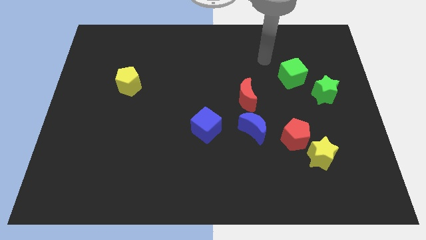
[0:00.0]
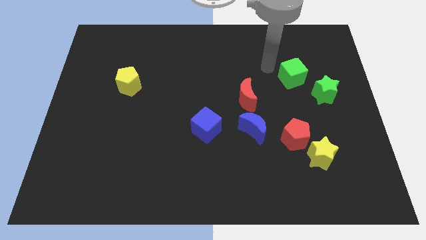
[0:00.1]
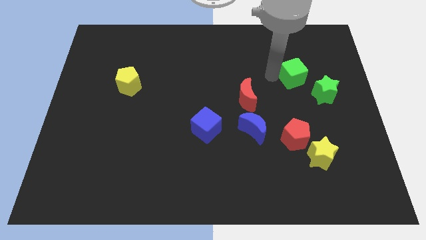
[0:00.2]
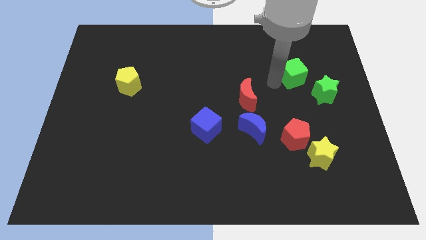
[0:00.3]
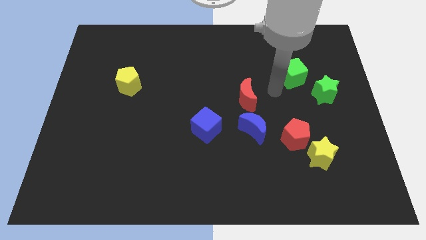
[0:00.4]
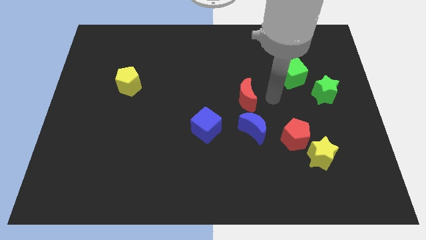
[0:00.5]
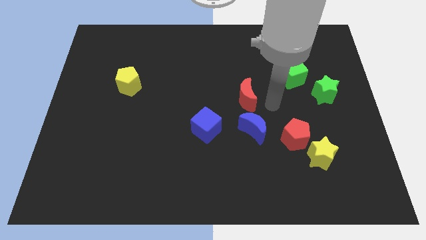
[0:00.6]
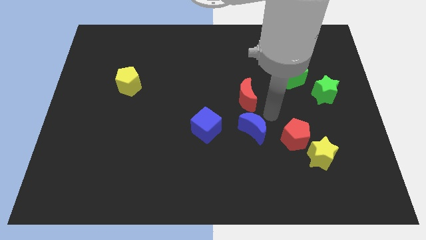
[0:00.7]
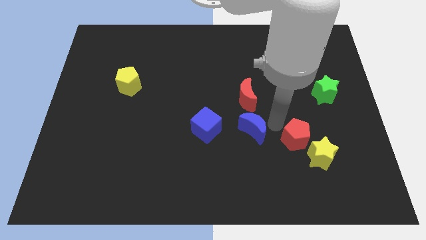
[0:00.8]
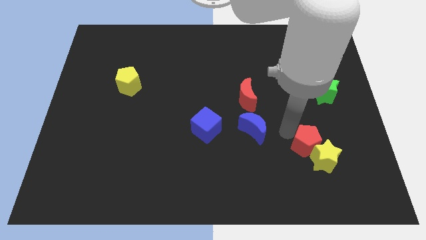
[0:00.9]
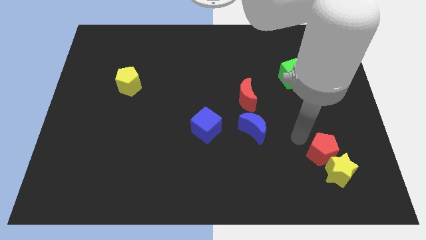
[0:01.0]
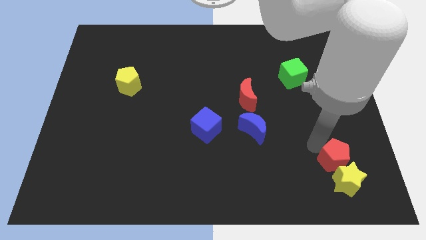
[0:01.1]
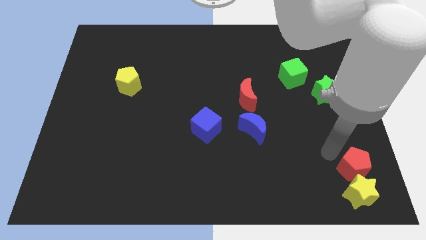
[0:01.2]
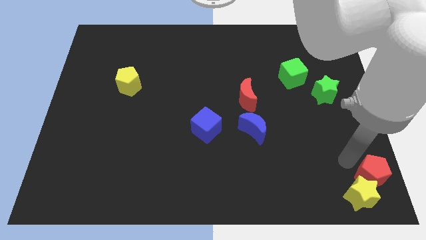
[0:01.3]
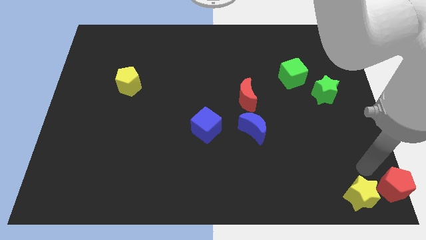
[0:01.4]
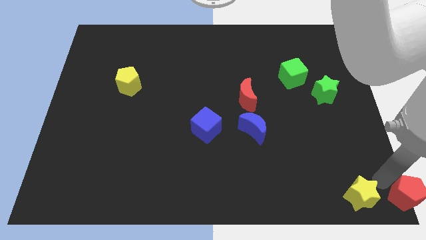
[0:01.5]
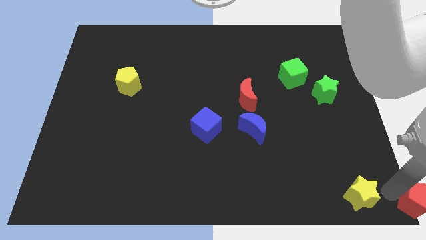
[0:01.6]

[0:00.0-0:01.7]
separate the yellow star from the red pentagon

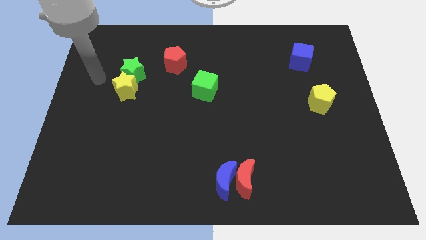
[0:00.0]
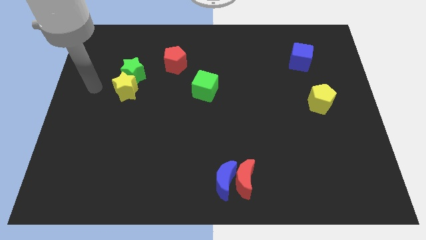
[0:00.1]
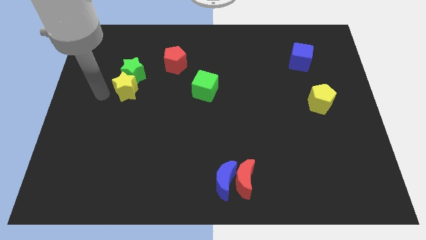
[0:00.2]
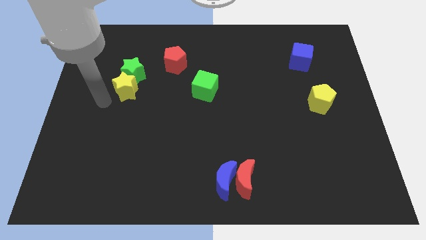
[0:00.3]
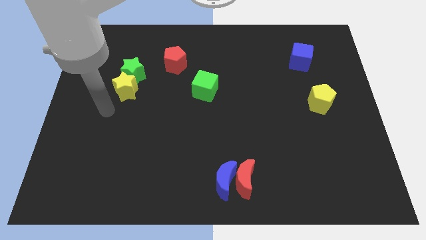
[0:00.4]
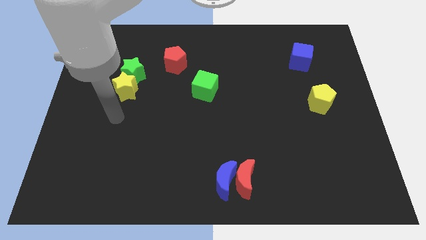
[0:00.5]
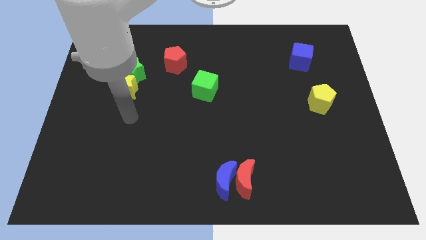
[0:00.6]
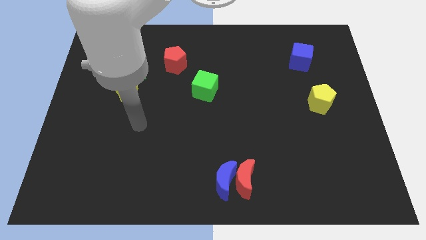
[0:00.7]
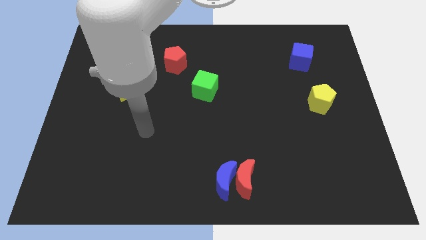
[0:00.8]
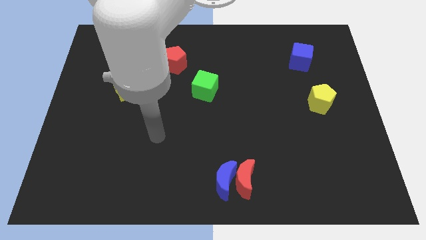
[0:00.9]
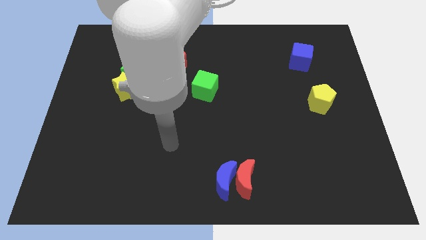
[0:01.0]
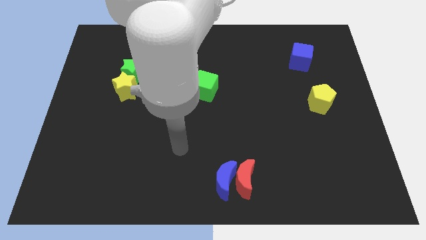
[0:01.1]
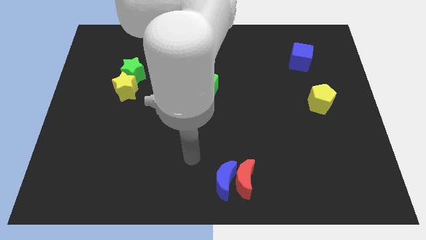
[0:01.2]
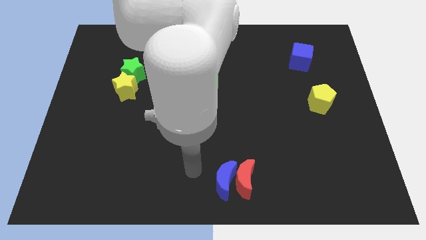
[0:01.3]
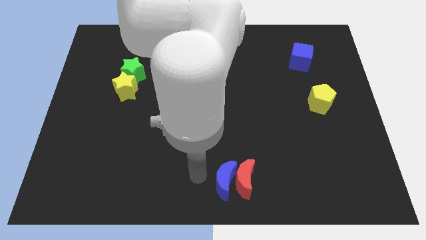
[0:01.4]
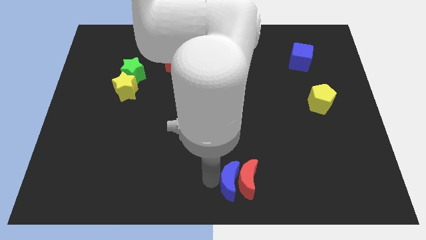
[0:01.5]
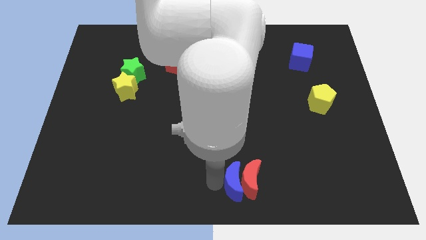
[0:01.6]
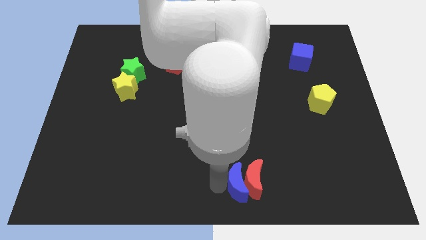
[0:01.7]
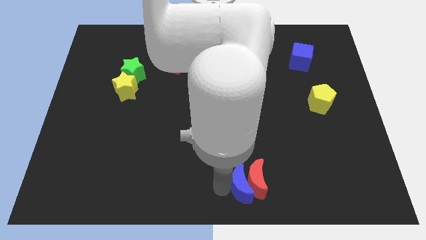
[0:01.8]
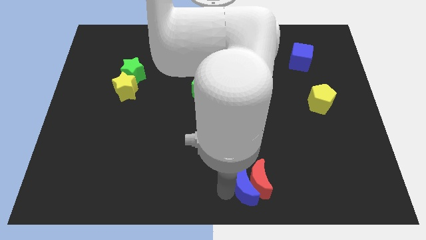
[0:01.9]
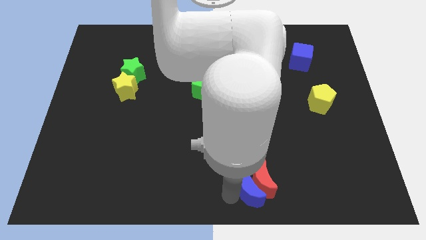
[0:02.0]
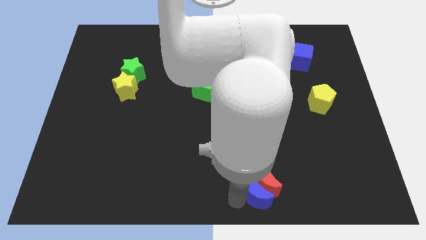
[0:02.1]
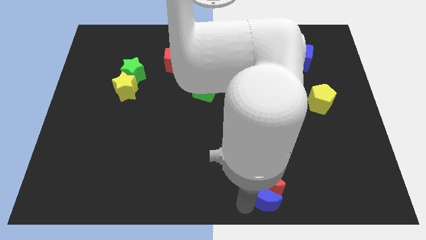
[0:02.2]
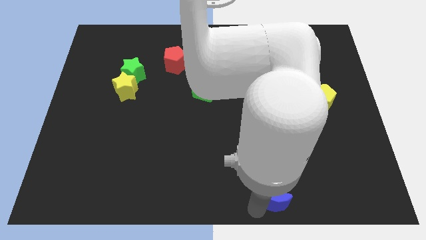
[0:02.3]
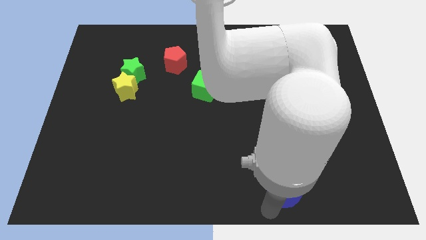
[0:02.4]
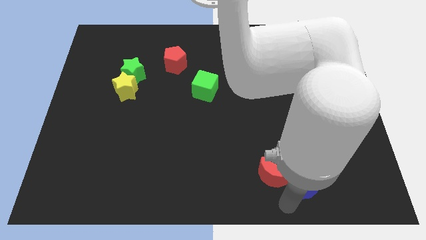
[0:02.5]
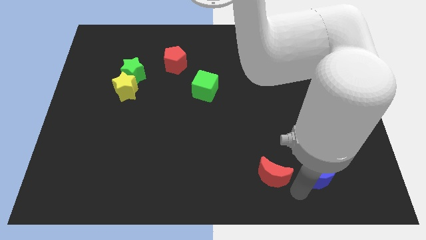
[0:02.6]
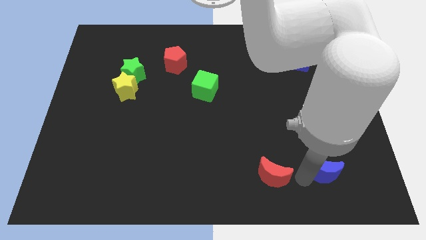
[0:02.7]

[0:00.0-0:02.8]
separate the red moon from the blue moon

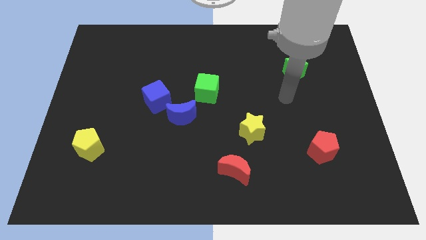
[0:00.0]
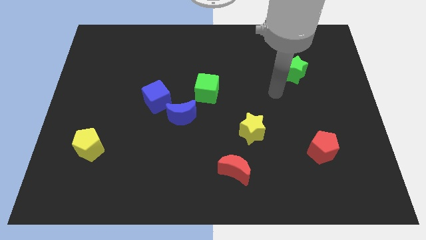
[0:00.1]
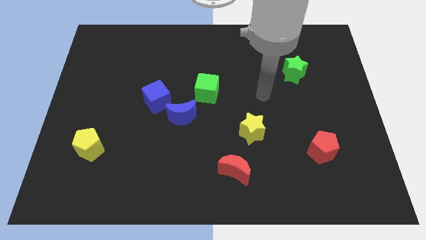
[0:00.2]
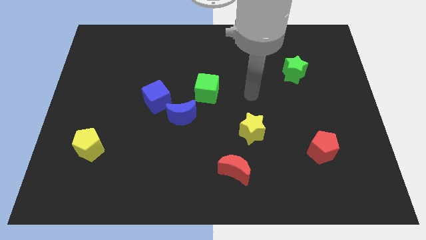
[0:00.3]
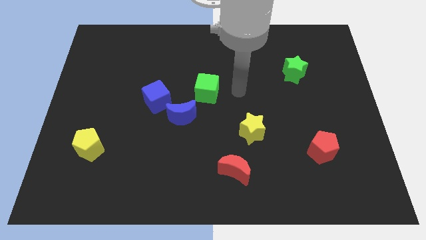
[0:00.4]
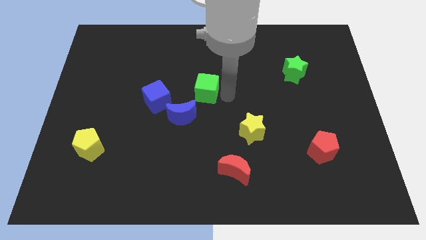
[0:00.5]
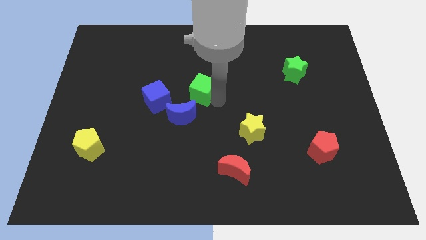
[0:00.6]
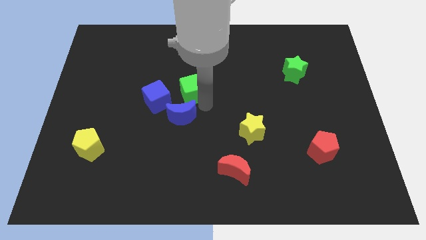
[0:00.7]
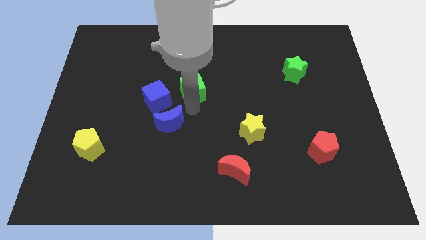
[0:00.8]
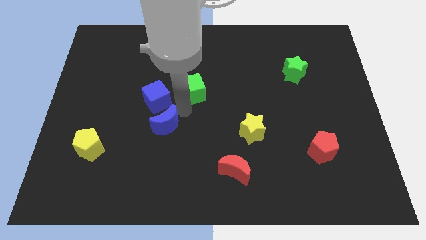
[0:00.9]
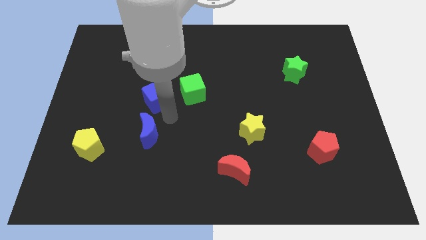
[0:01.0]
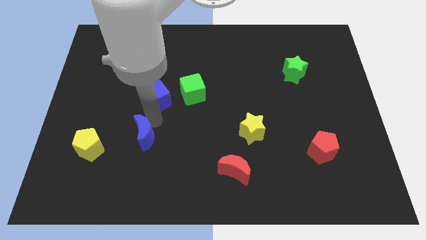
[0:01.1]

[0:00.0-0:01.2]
move the blue cube away from the blue moon

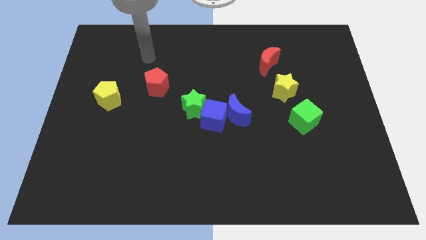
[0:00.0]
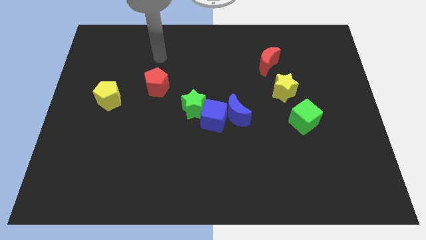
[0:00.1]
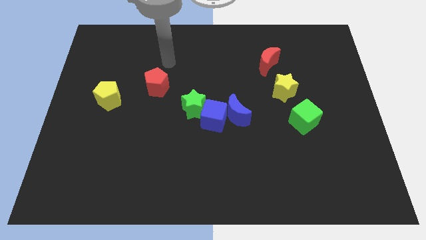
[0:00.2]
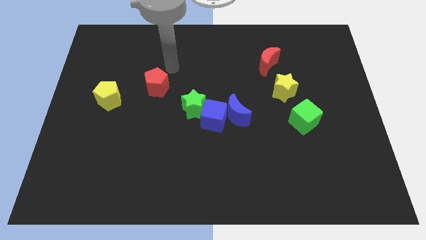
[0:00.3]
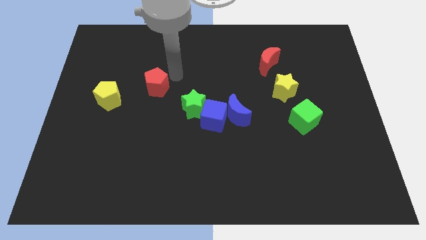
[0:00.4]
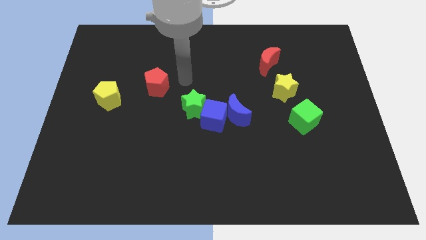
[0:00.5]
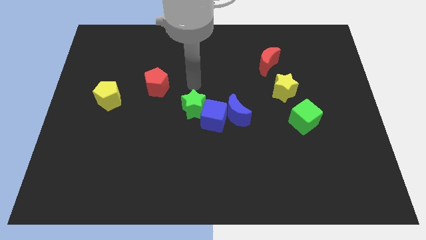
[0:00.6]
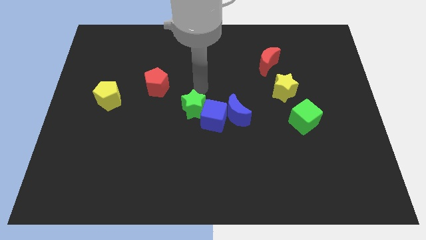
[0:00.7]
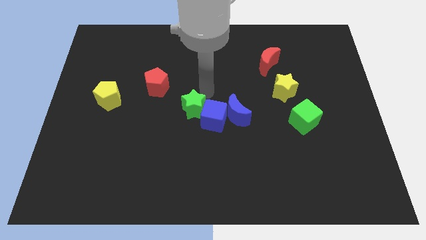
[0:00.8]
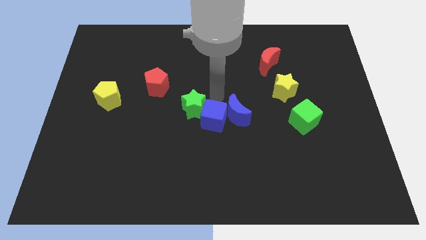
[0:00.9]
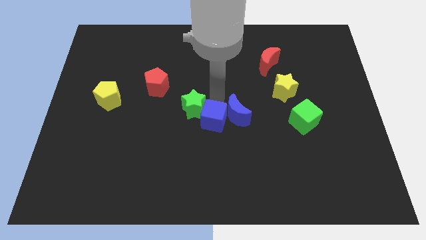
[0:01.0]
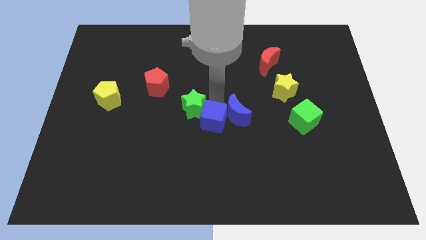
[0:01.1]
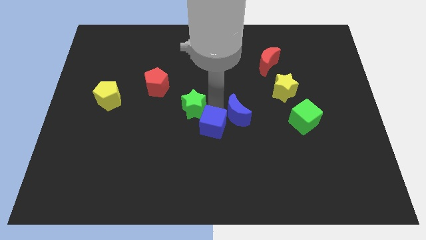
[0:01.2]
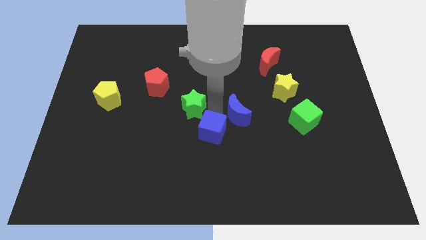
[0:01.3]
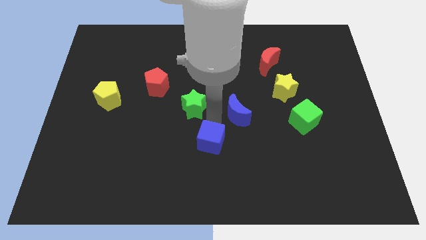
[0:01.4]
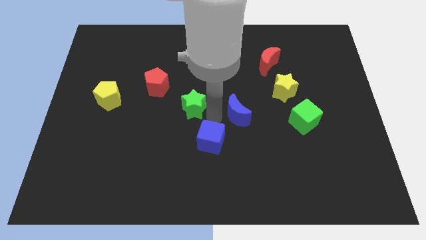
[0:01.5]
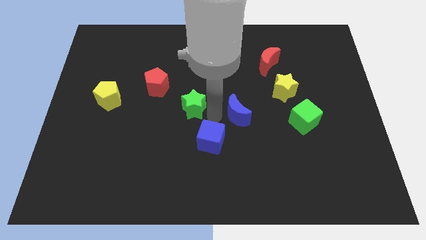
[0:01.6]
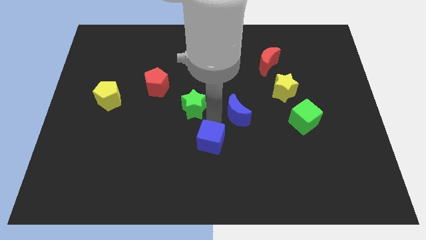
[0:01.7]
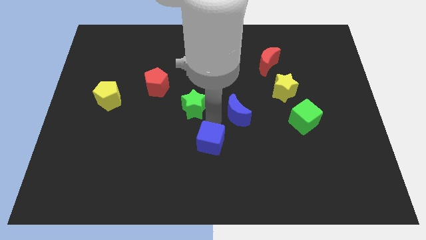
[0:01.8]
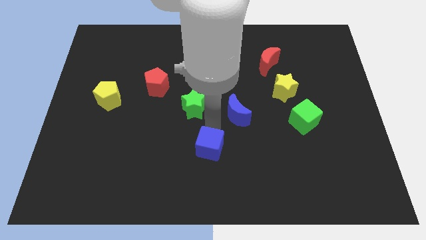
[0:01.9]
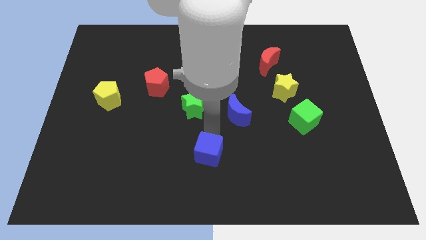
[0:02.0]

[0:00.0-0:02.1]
move the blue cube away from the blue moon and green star

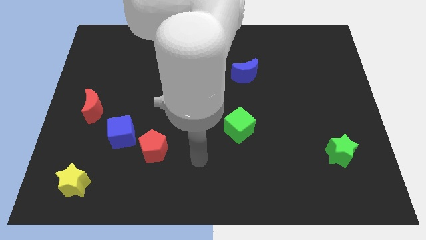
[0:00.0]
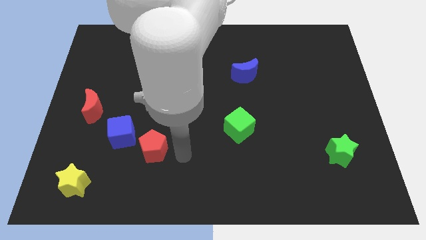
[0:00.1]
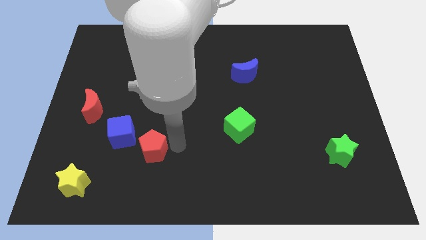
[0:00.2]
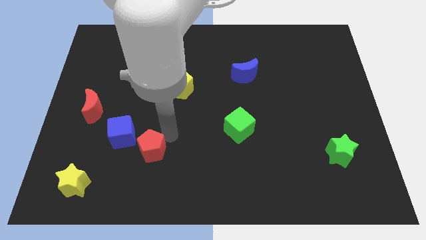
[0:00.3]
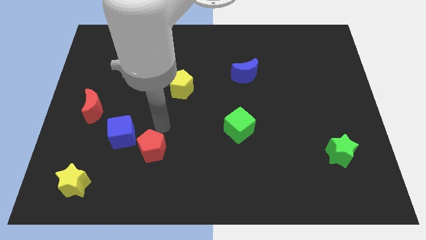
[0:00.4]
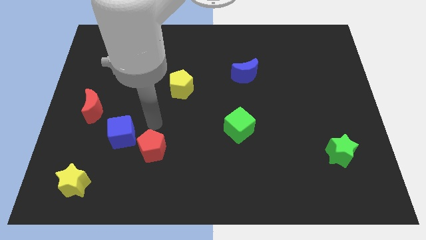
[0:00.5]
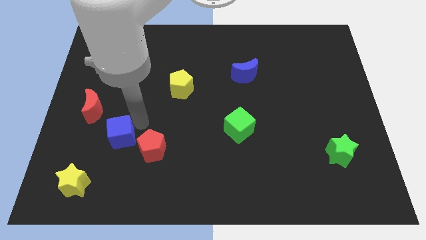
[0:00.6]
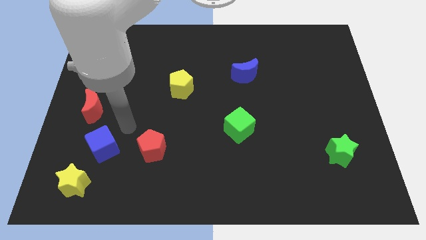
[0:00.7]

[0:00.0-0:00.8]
separate the red pentagon from the blue cube

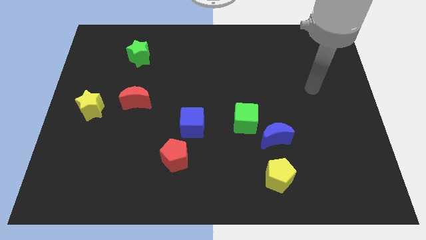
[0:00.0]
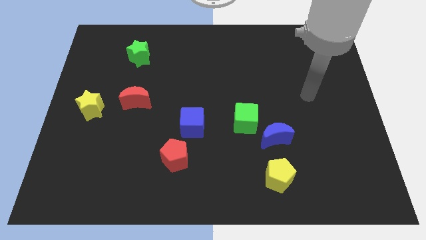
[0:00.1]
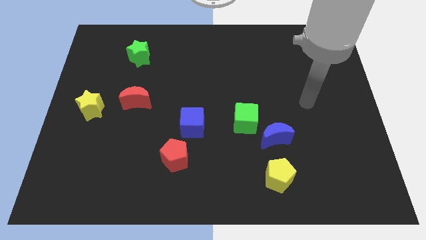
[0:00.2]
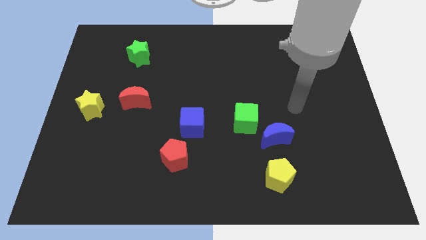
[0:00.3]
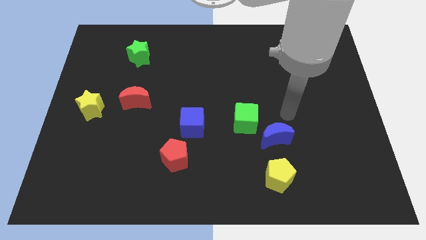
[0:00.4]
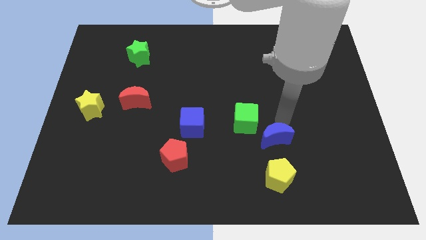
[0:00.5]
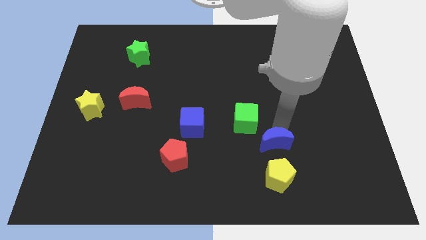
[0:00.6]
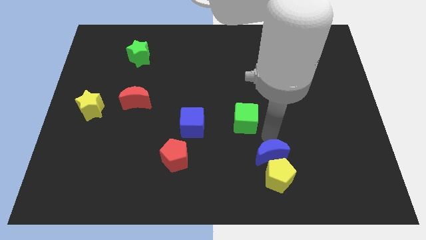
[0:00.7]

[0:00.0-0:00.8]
pull the green cube apart from the blue moon
